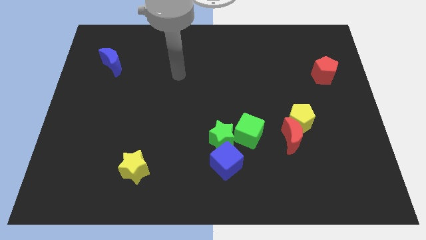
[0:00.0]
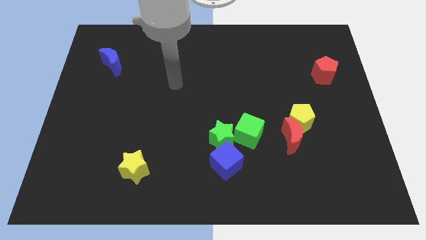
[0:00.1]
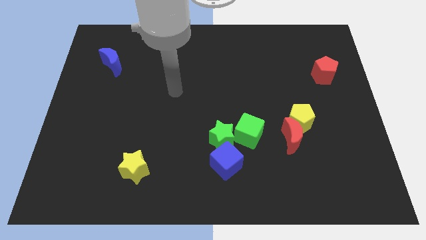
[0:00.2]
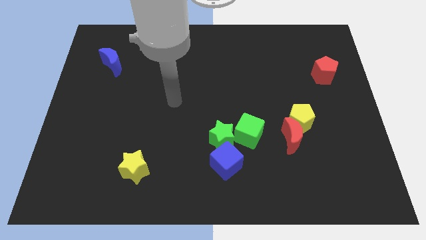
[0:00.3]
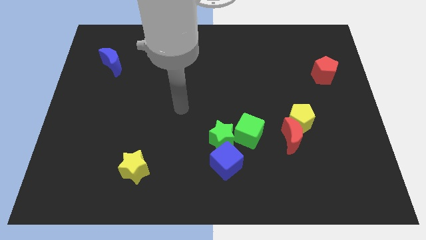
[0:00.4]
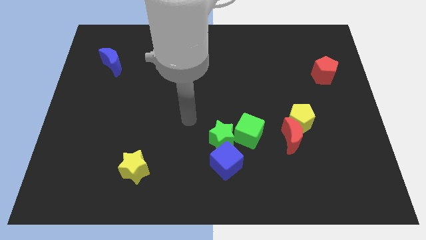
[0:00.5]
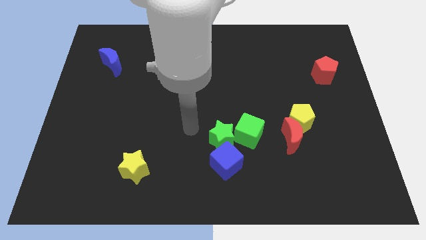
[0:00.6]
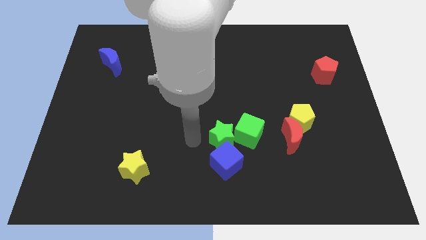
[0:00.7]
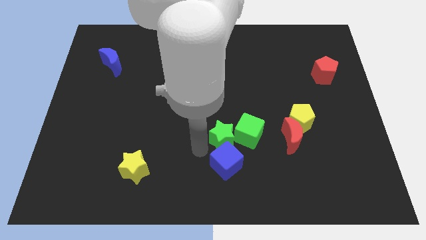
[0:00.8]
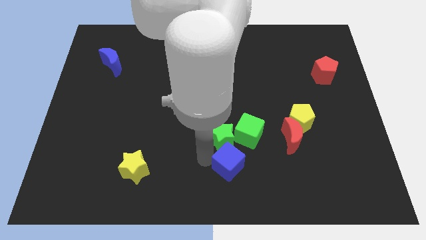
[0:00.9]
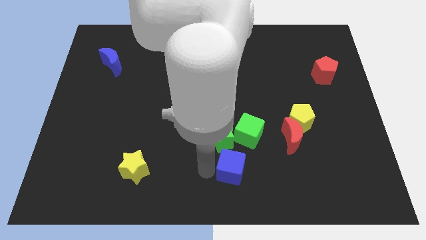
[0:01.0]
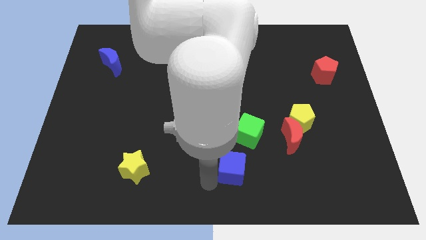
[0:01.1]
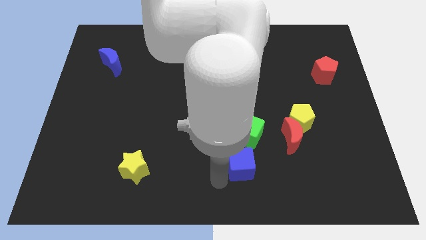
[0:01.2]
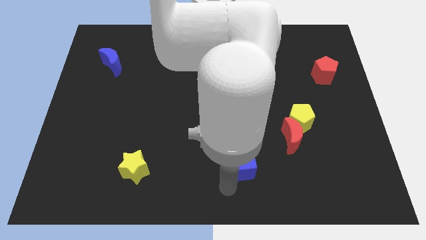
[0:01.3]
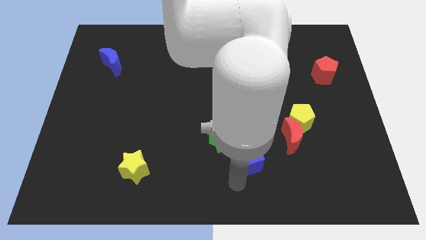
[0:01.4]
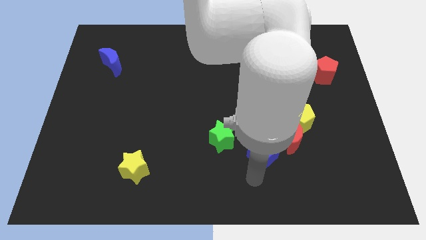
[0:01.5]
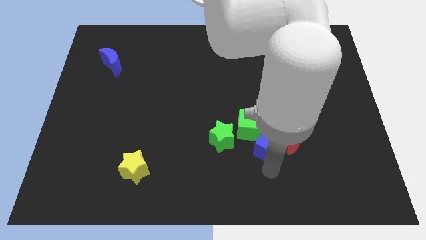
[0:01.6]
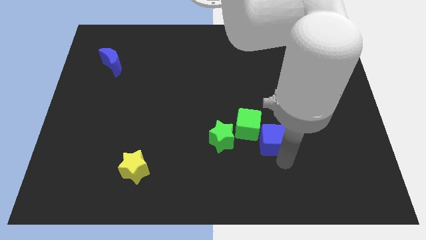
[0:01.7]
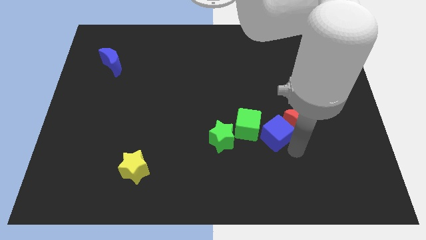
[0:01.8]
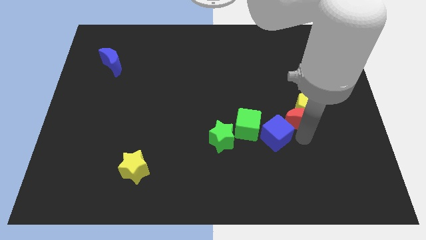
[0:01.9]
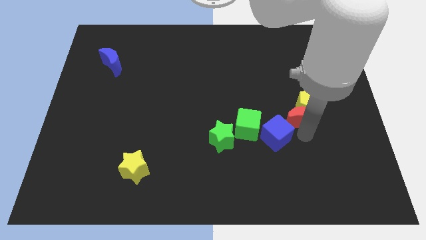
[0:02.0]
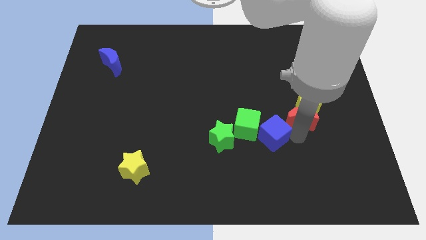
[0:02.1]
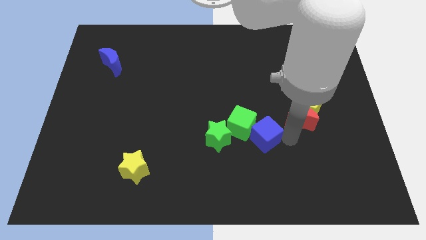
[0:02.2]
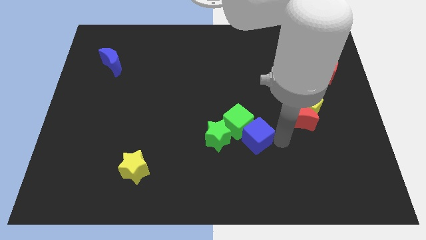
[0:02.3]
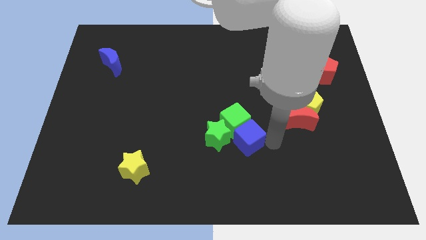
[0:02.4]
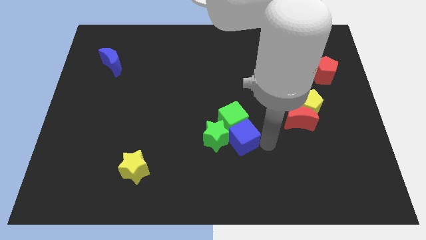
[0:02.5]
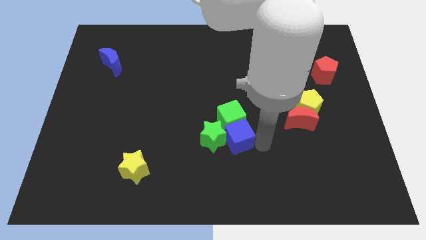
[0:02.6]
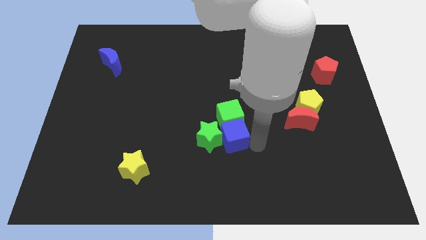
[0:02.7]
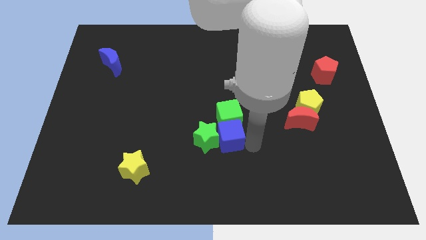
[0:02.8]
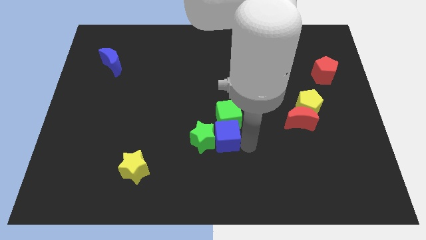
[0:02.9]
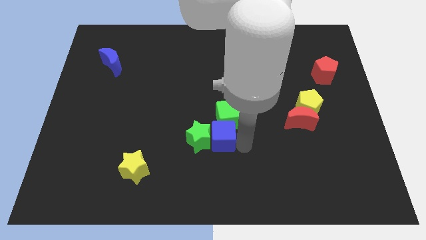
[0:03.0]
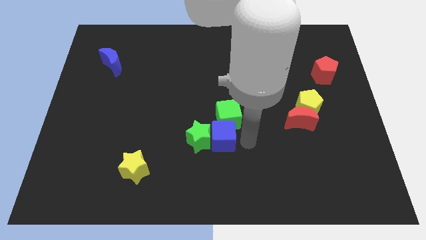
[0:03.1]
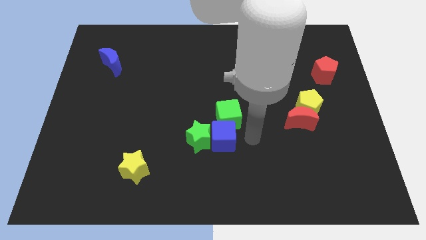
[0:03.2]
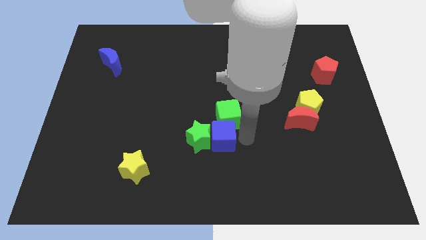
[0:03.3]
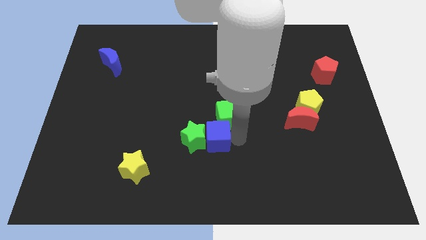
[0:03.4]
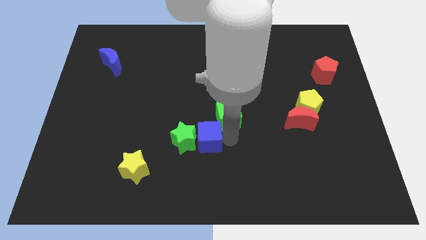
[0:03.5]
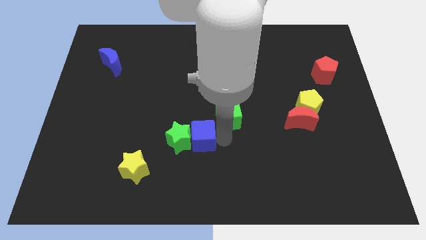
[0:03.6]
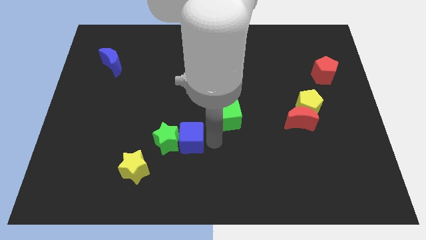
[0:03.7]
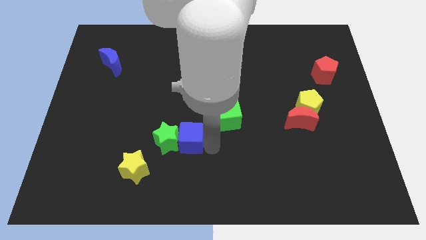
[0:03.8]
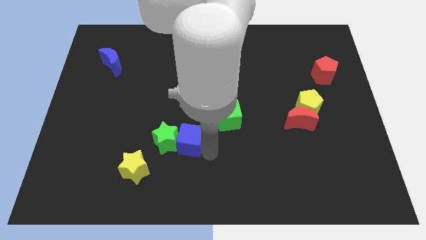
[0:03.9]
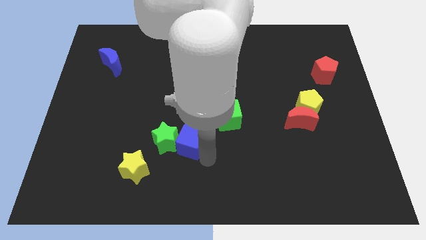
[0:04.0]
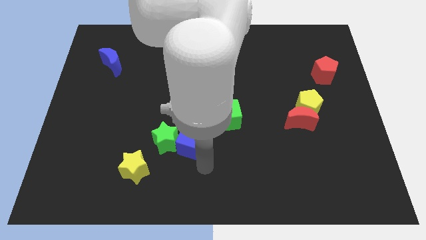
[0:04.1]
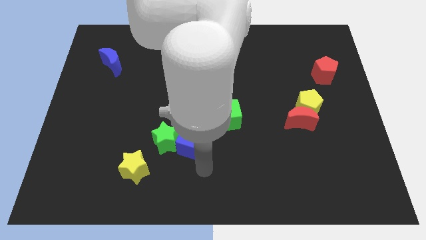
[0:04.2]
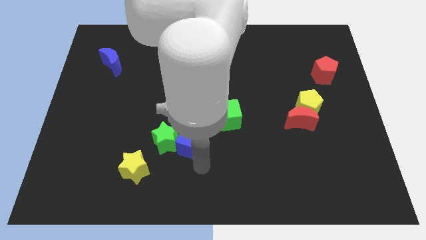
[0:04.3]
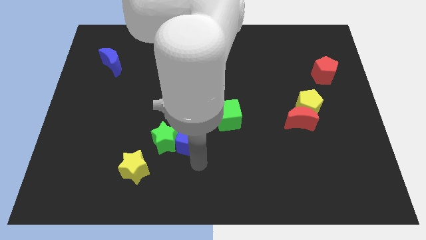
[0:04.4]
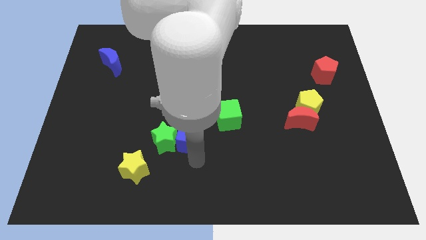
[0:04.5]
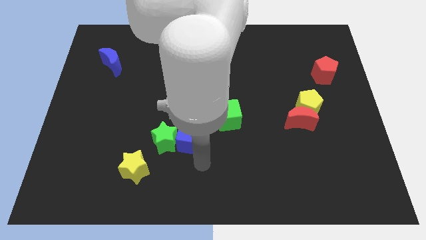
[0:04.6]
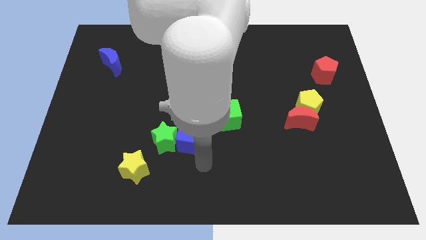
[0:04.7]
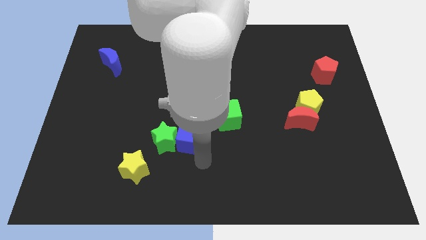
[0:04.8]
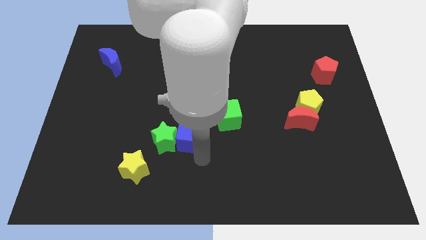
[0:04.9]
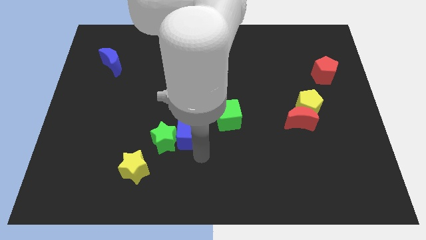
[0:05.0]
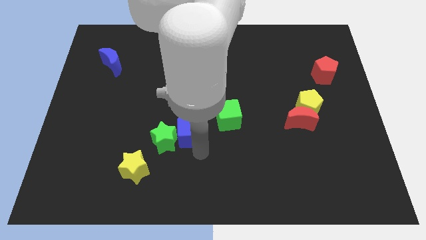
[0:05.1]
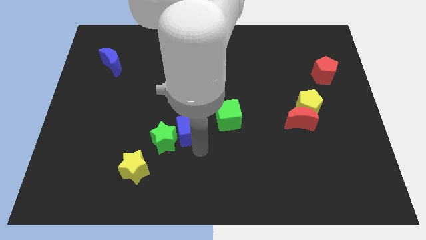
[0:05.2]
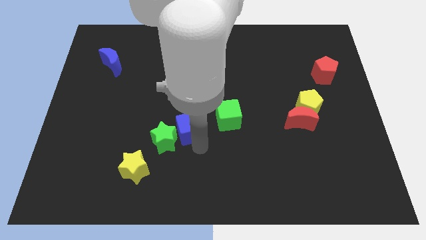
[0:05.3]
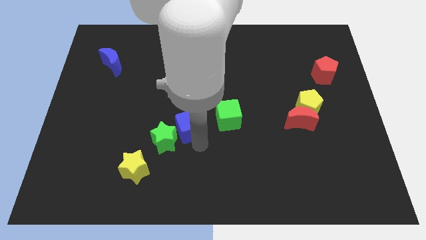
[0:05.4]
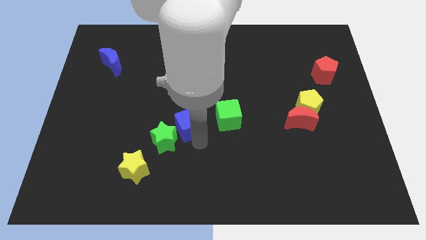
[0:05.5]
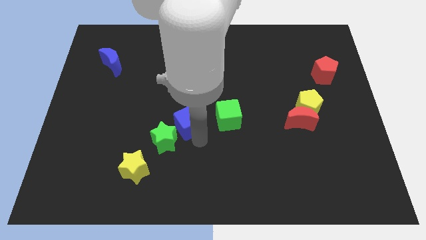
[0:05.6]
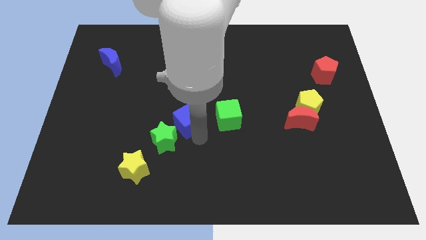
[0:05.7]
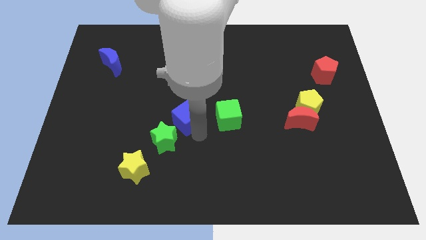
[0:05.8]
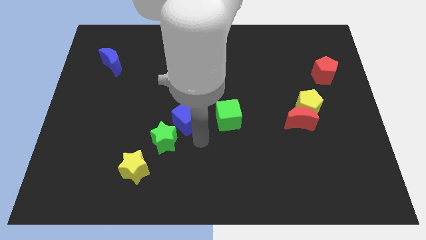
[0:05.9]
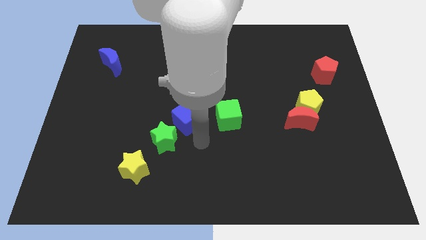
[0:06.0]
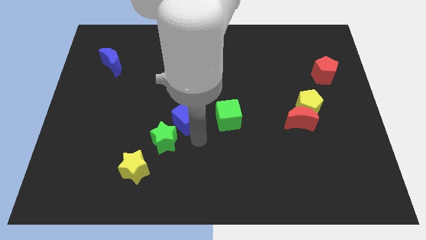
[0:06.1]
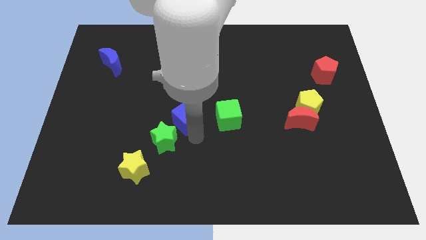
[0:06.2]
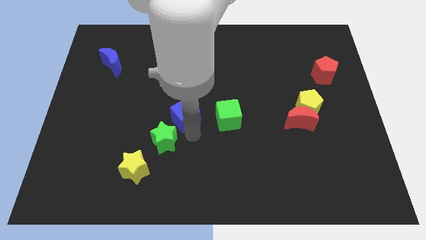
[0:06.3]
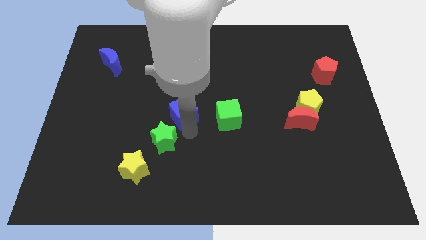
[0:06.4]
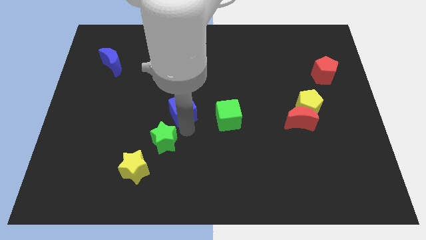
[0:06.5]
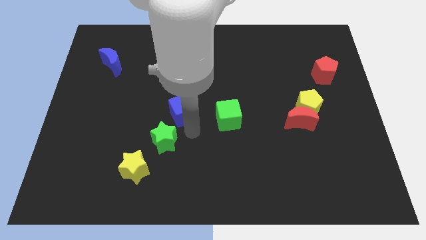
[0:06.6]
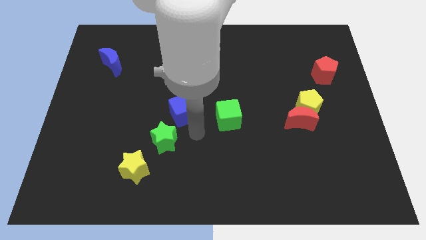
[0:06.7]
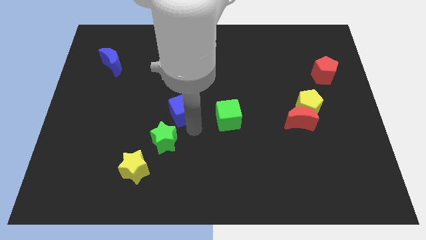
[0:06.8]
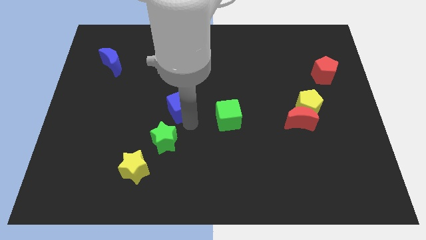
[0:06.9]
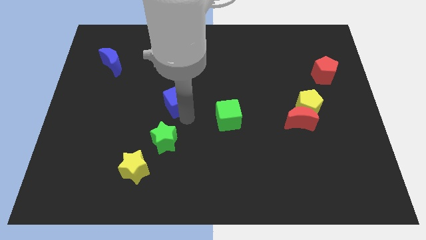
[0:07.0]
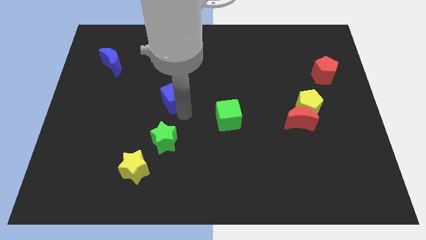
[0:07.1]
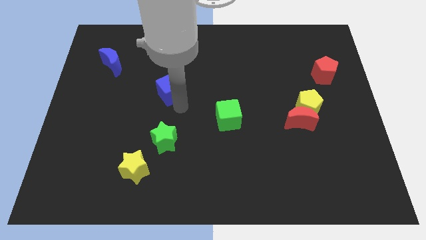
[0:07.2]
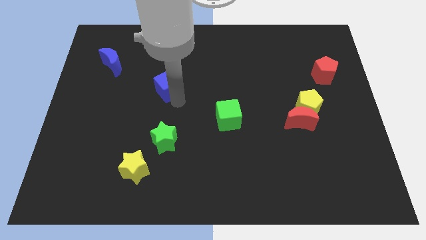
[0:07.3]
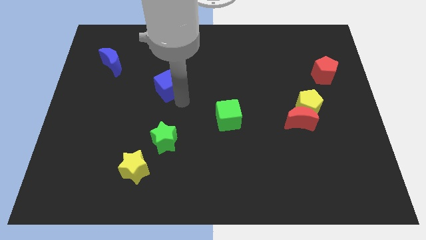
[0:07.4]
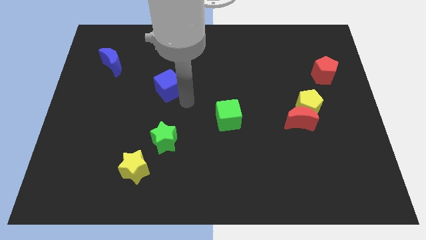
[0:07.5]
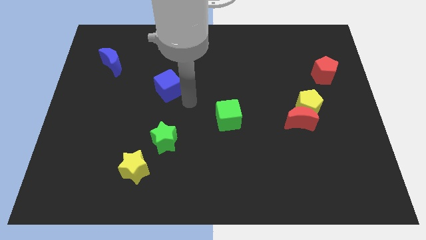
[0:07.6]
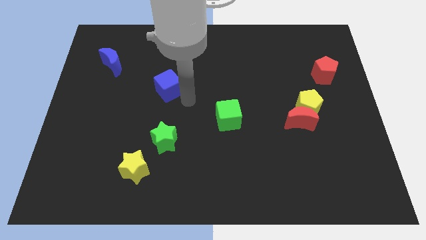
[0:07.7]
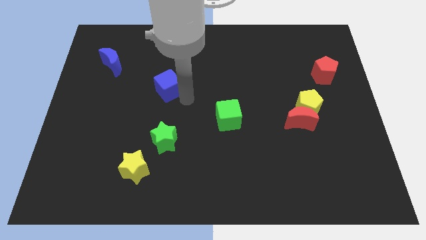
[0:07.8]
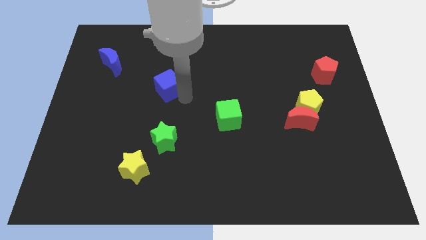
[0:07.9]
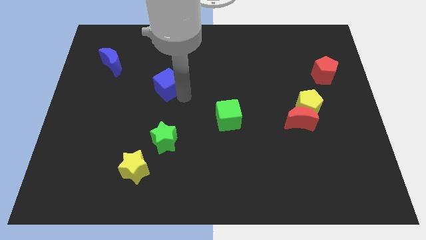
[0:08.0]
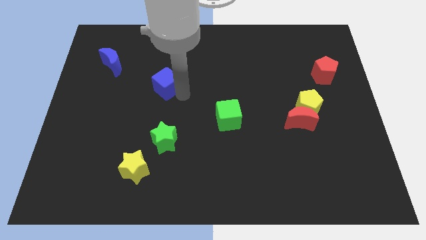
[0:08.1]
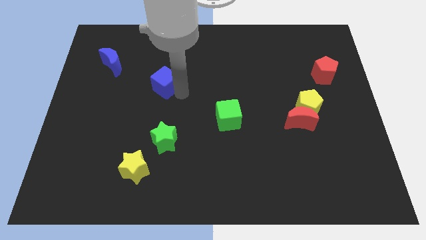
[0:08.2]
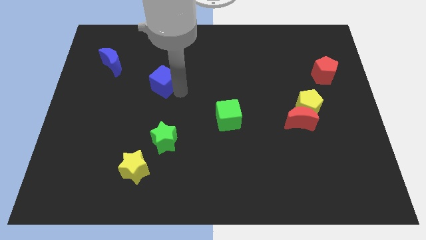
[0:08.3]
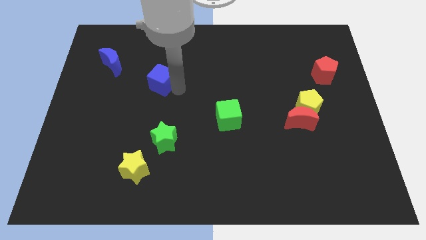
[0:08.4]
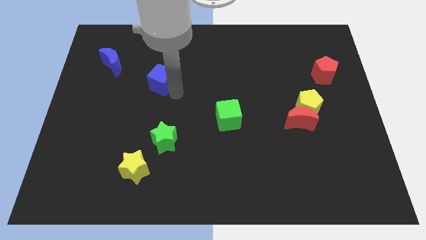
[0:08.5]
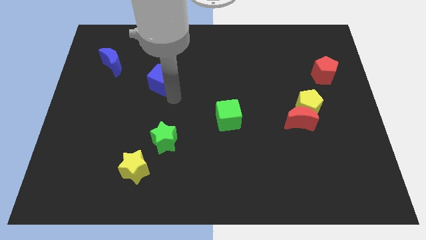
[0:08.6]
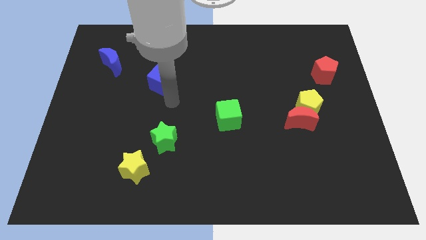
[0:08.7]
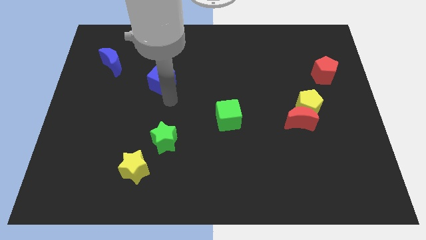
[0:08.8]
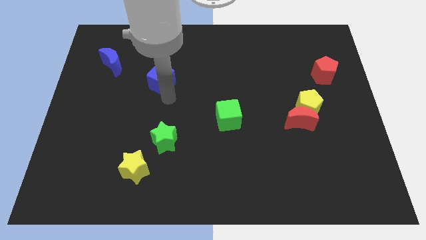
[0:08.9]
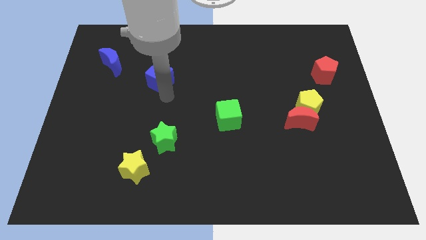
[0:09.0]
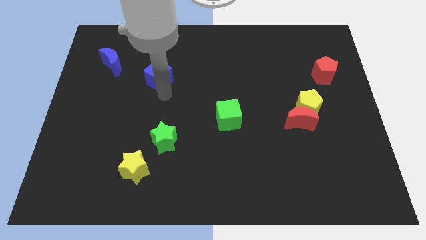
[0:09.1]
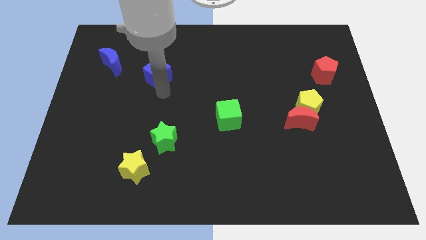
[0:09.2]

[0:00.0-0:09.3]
push the blue cube right of the blue moon
